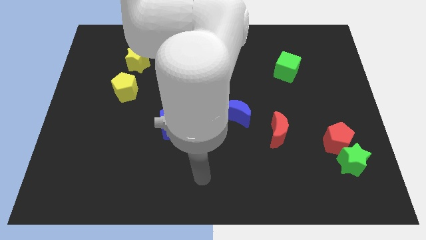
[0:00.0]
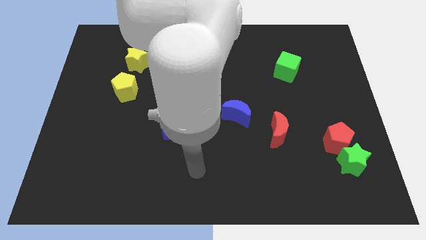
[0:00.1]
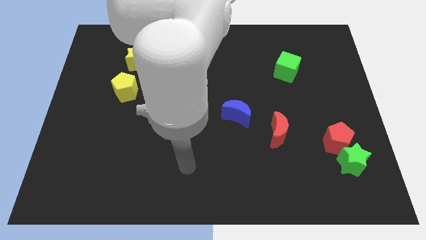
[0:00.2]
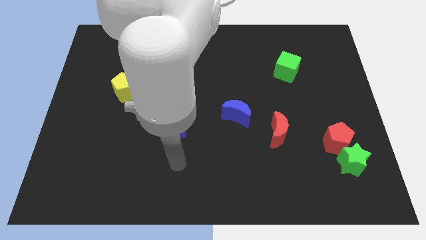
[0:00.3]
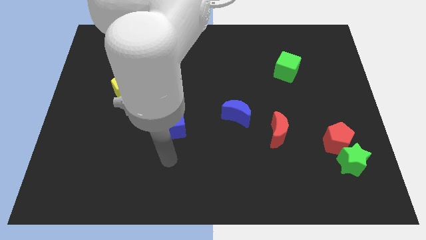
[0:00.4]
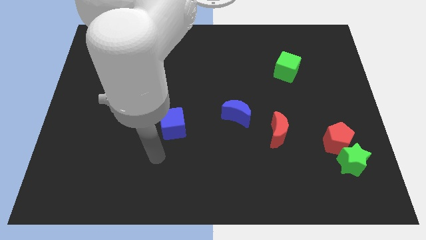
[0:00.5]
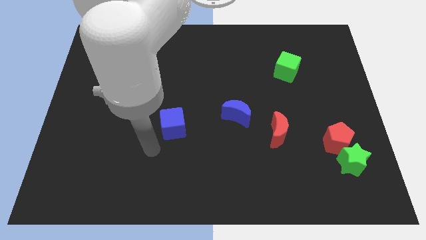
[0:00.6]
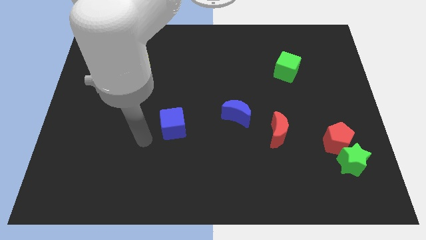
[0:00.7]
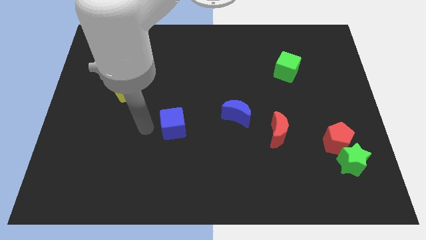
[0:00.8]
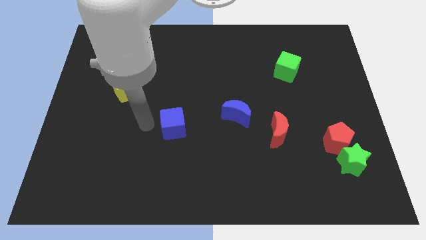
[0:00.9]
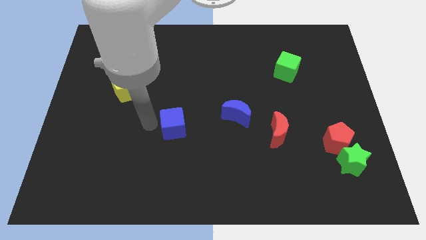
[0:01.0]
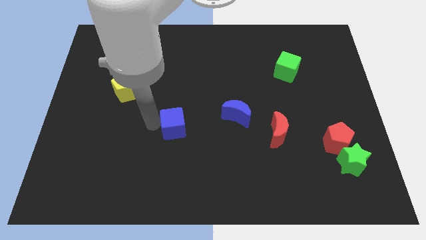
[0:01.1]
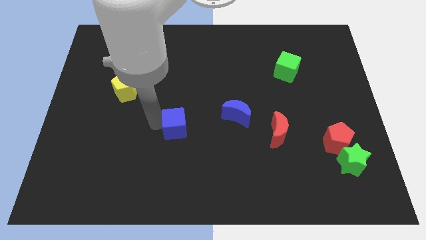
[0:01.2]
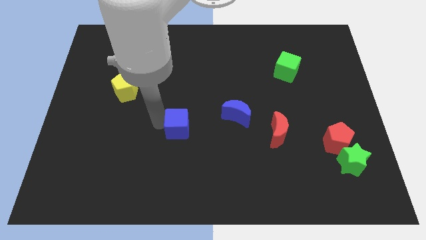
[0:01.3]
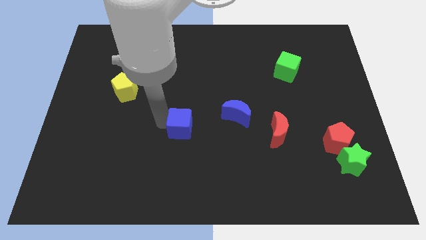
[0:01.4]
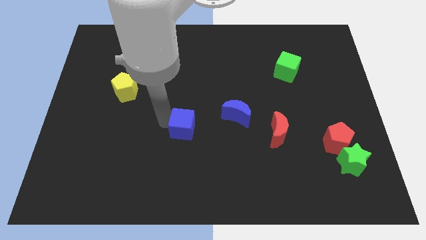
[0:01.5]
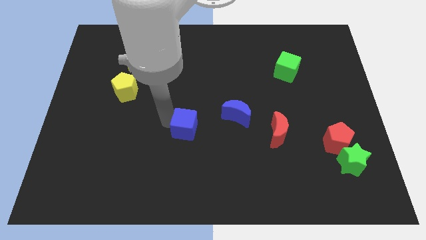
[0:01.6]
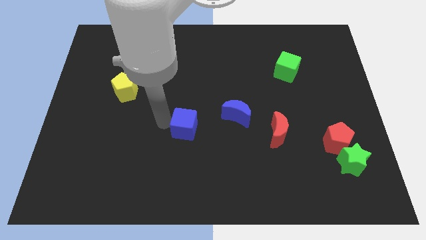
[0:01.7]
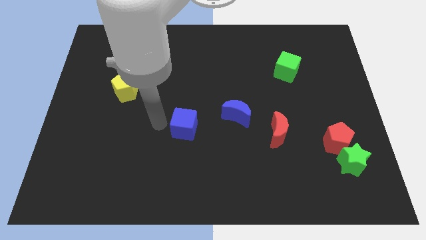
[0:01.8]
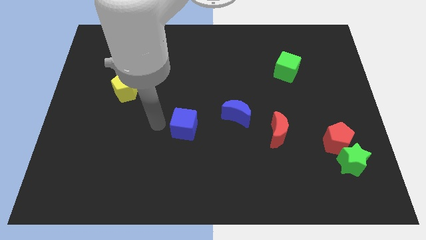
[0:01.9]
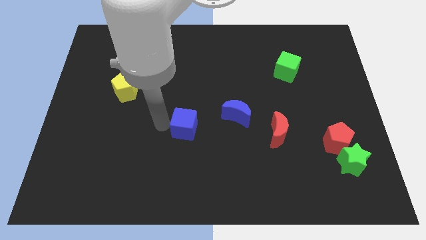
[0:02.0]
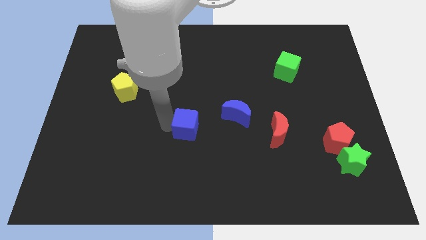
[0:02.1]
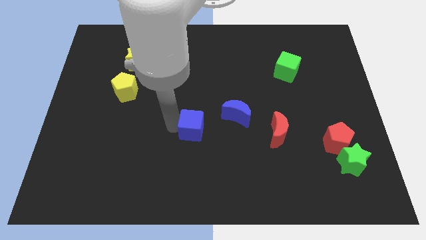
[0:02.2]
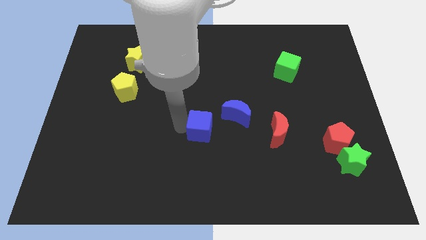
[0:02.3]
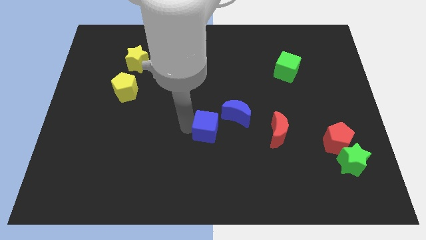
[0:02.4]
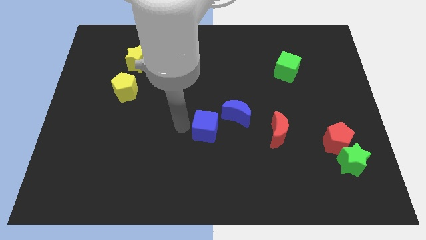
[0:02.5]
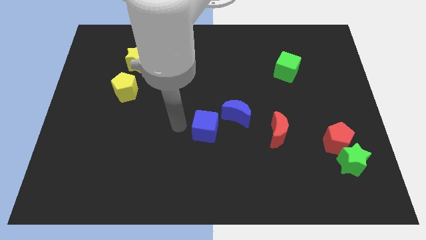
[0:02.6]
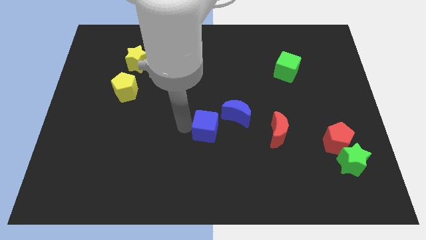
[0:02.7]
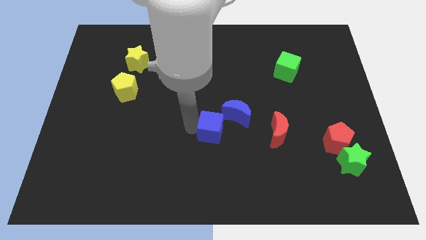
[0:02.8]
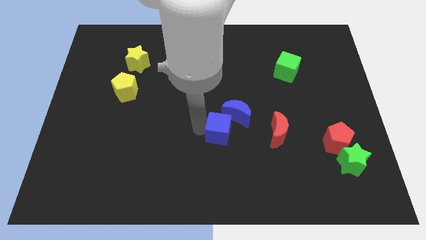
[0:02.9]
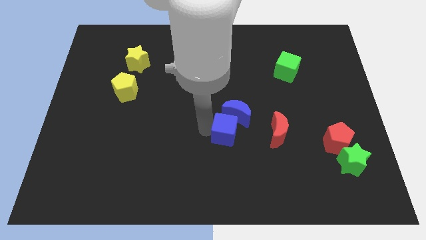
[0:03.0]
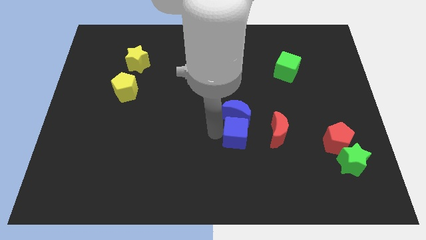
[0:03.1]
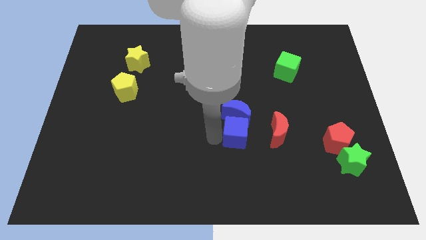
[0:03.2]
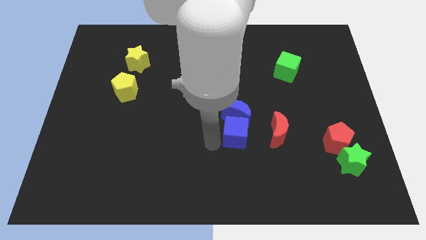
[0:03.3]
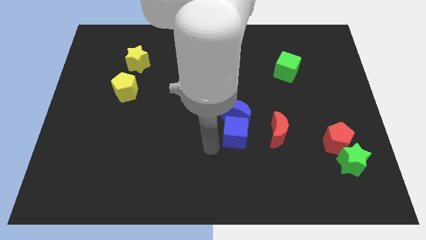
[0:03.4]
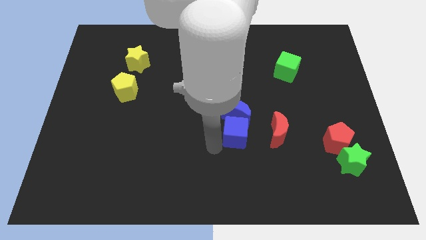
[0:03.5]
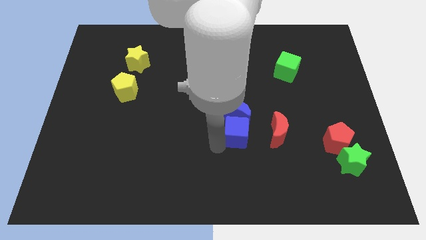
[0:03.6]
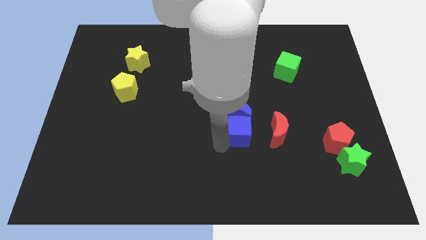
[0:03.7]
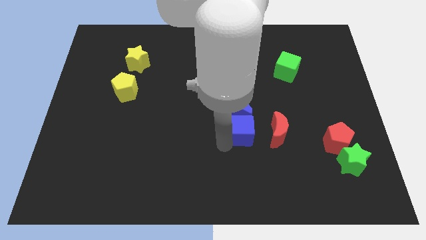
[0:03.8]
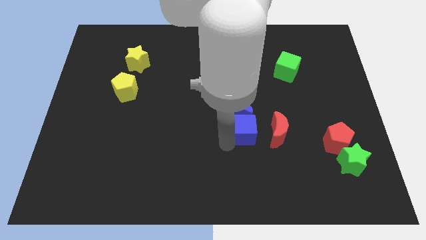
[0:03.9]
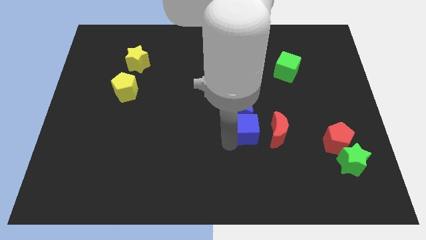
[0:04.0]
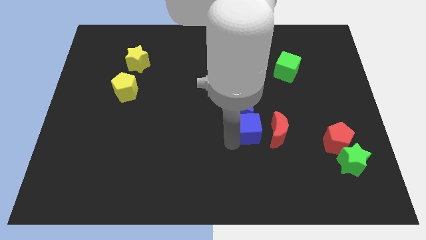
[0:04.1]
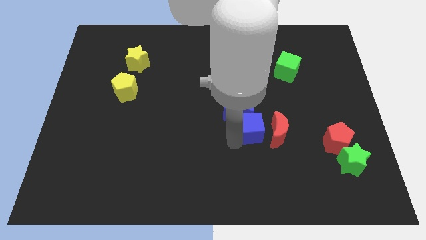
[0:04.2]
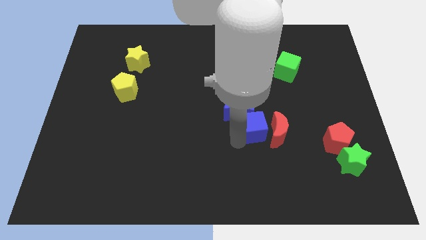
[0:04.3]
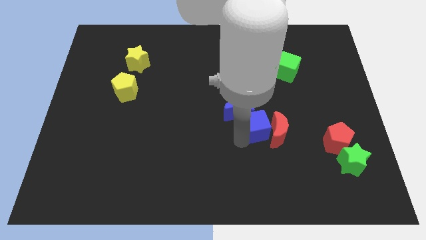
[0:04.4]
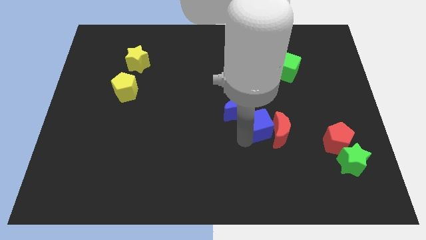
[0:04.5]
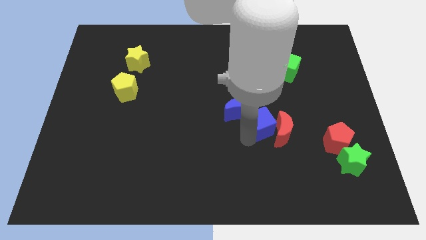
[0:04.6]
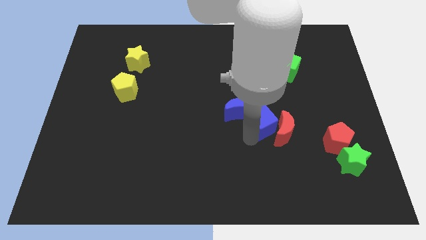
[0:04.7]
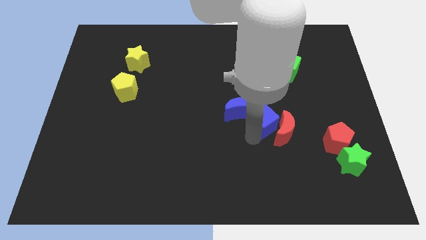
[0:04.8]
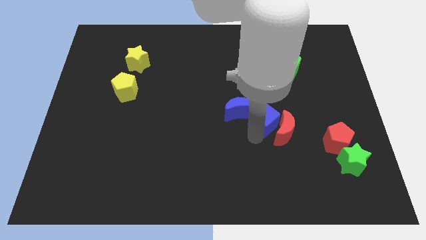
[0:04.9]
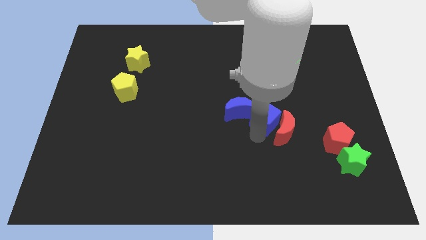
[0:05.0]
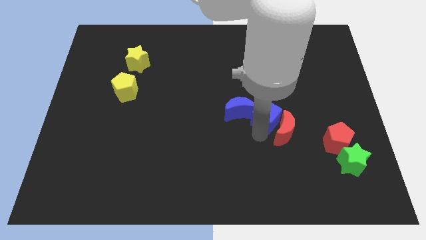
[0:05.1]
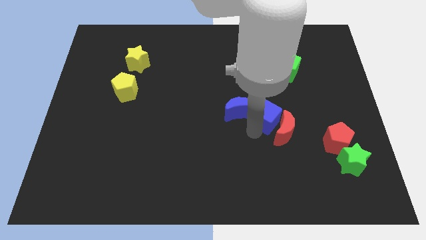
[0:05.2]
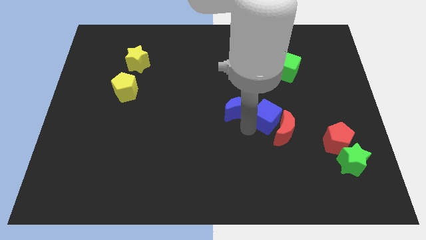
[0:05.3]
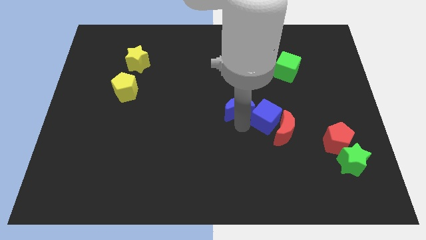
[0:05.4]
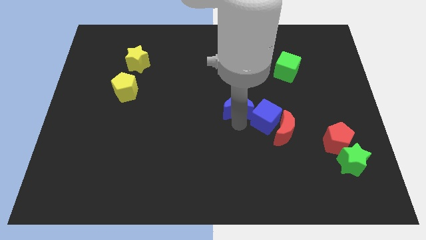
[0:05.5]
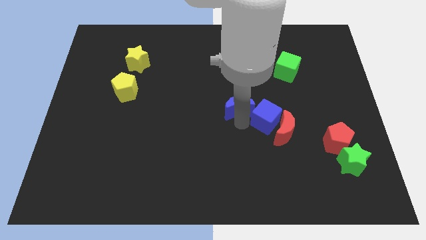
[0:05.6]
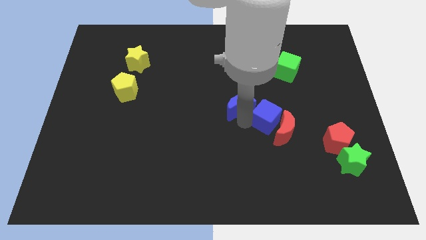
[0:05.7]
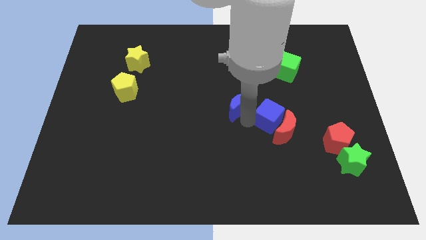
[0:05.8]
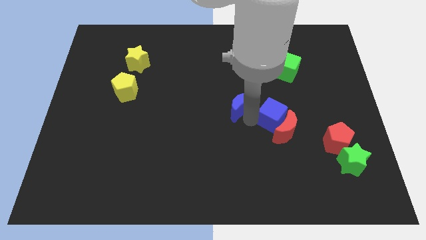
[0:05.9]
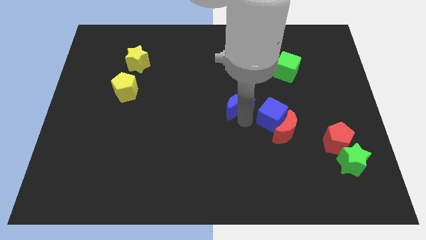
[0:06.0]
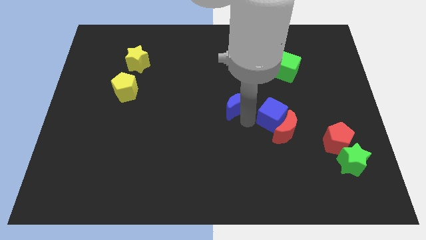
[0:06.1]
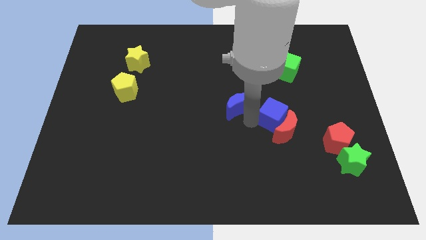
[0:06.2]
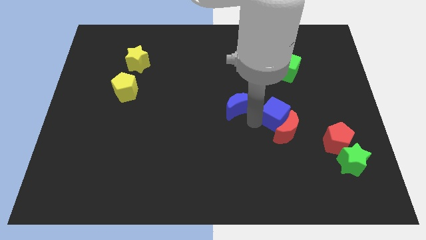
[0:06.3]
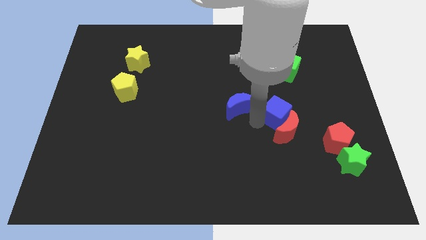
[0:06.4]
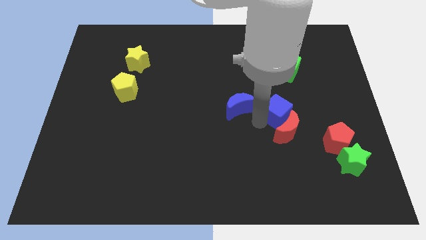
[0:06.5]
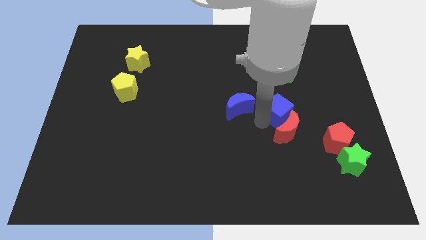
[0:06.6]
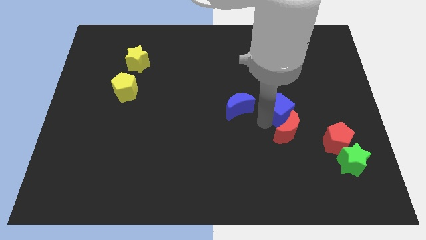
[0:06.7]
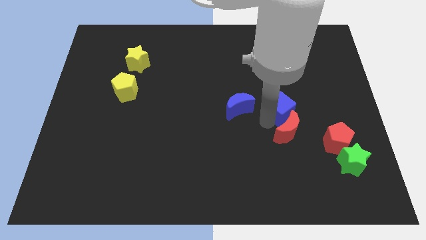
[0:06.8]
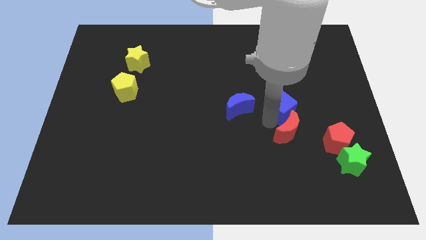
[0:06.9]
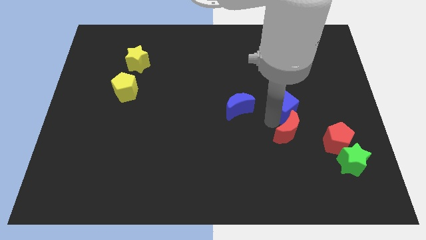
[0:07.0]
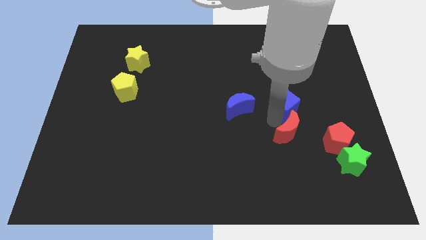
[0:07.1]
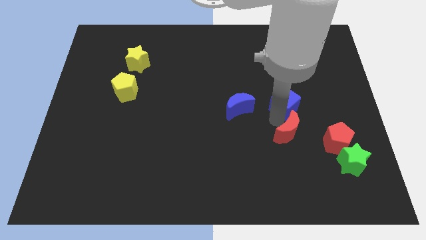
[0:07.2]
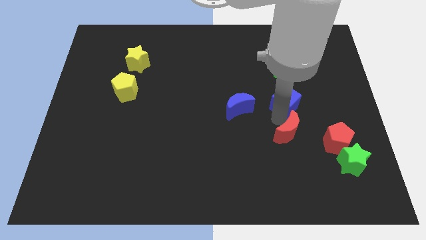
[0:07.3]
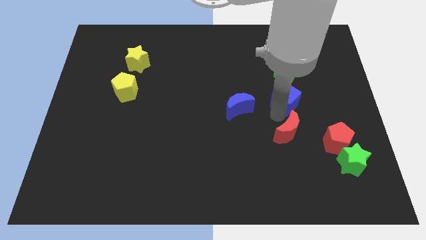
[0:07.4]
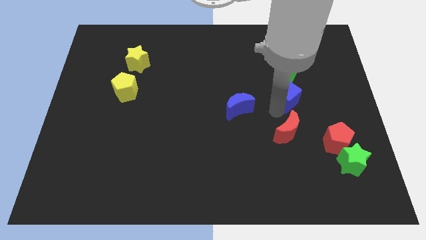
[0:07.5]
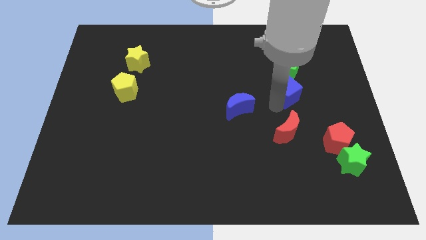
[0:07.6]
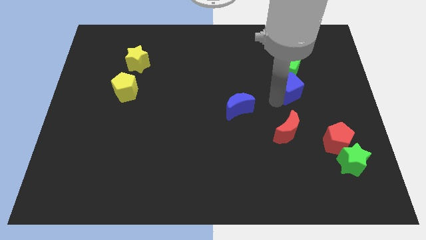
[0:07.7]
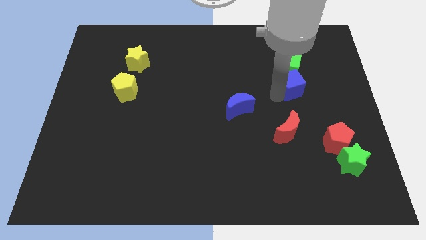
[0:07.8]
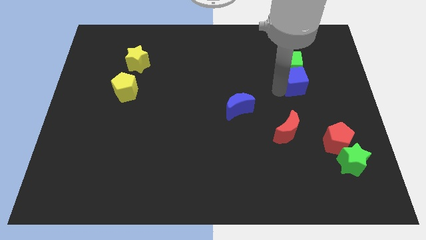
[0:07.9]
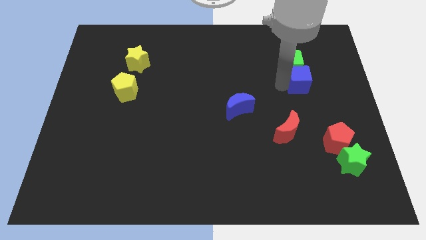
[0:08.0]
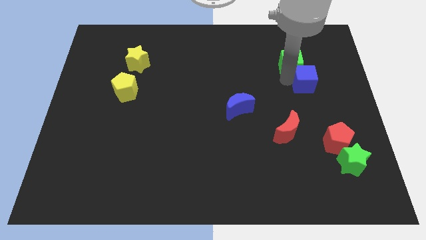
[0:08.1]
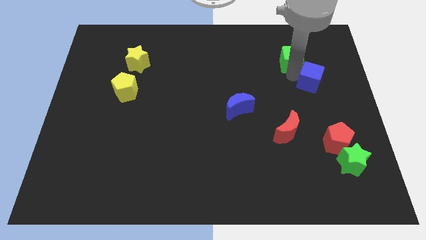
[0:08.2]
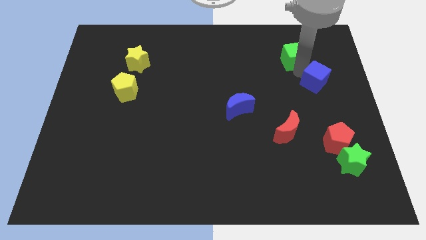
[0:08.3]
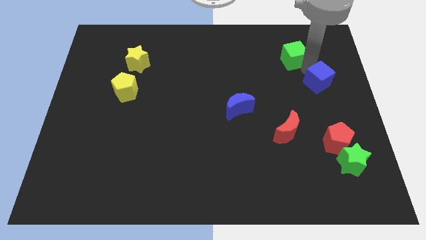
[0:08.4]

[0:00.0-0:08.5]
slide the blue cube to the right side of the board
